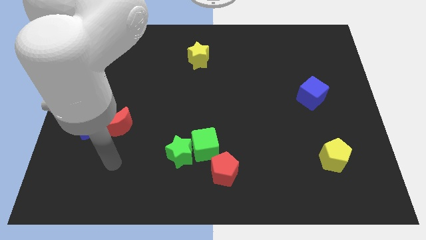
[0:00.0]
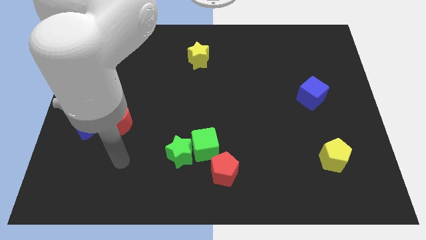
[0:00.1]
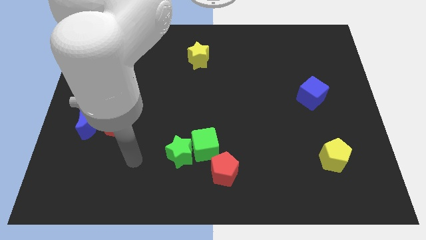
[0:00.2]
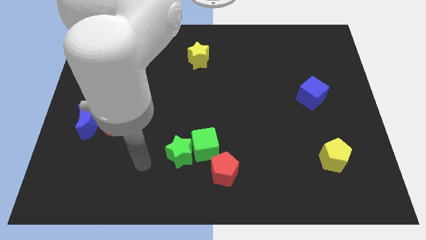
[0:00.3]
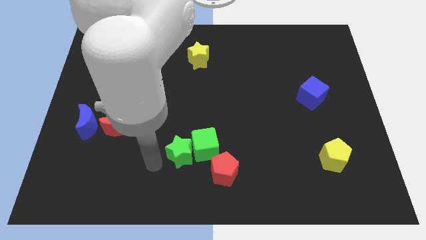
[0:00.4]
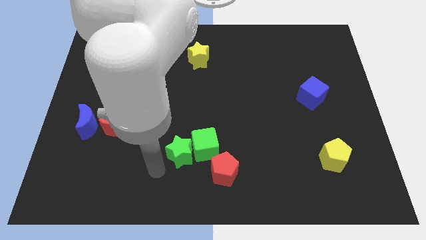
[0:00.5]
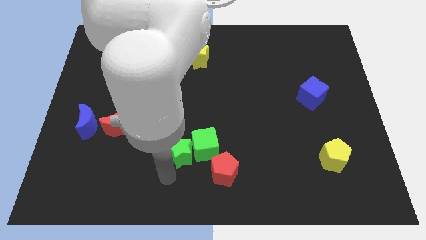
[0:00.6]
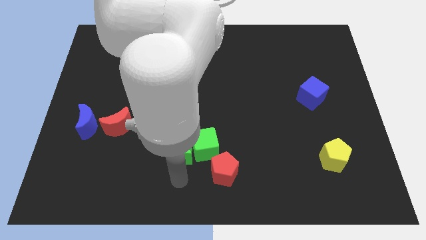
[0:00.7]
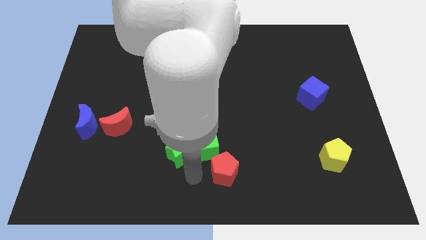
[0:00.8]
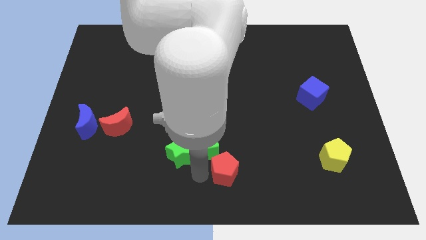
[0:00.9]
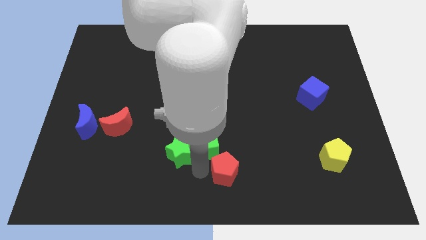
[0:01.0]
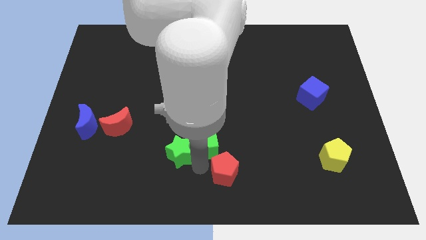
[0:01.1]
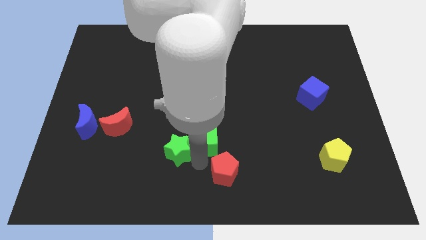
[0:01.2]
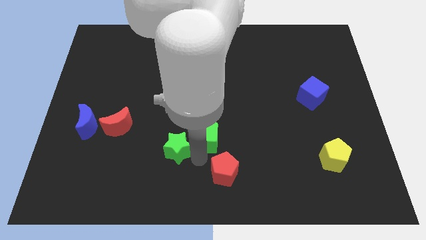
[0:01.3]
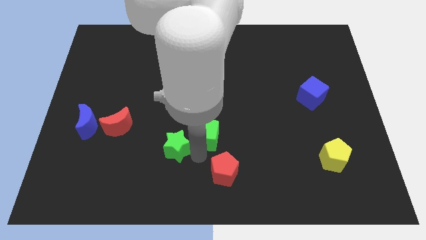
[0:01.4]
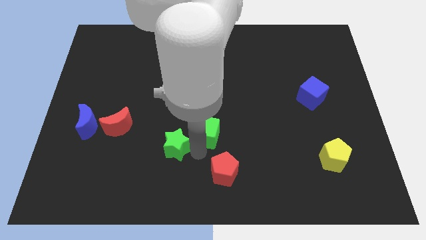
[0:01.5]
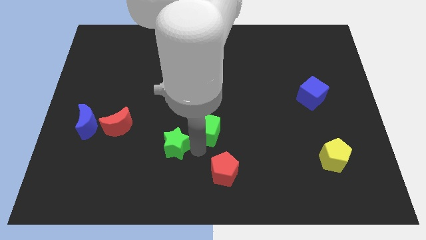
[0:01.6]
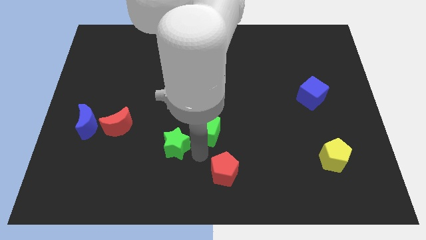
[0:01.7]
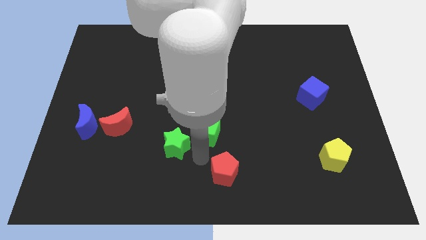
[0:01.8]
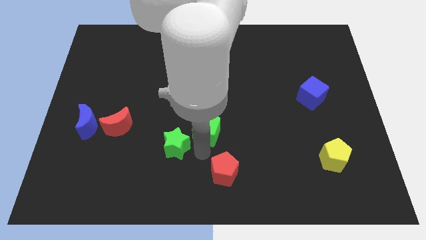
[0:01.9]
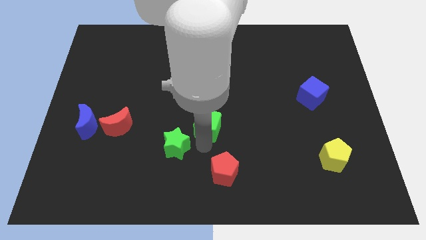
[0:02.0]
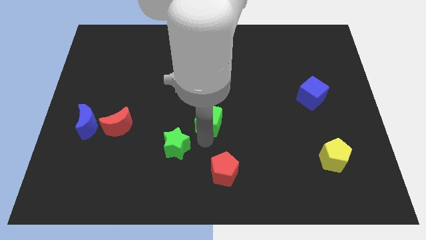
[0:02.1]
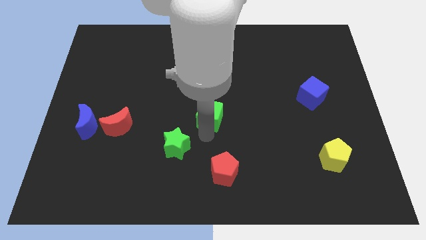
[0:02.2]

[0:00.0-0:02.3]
separate the green cube from the green star and red pentagon

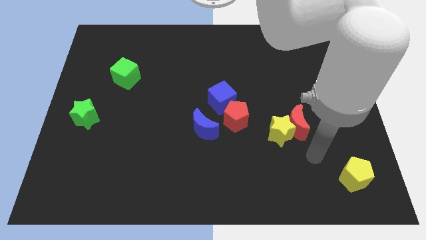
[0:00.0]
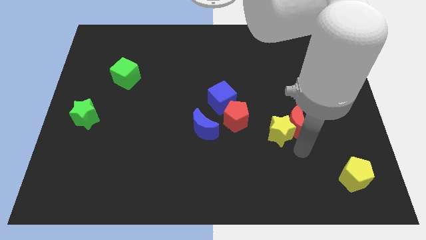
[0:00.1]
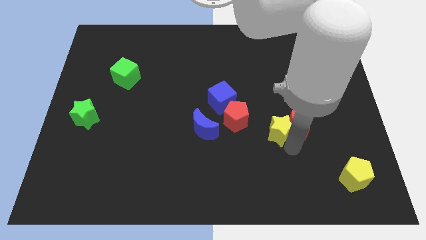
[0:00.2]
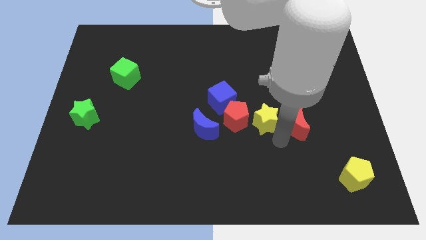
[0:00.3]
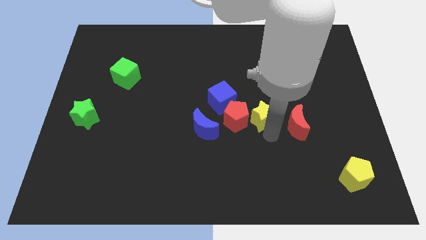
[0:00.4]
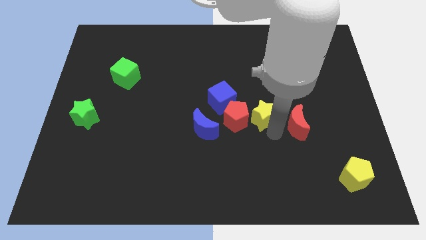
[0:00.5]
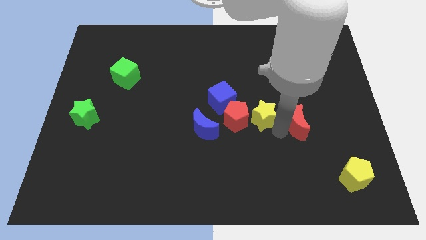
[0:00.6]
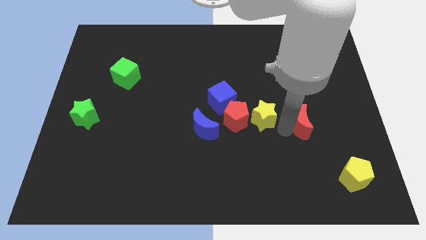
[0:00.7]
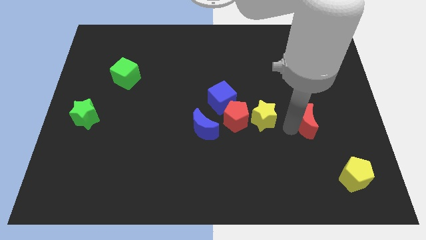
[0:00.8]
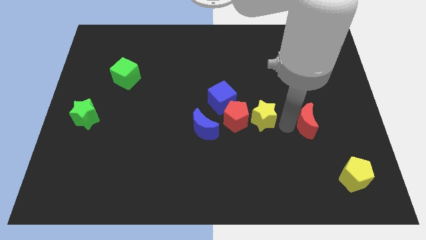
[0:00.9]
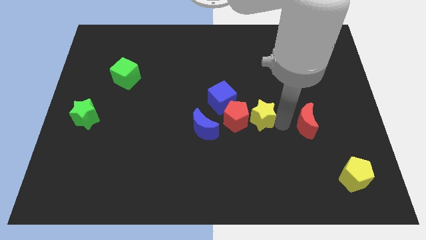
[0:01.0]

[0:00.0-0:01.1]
pull the red moon apart from the yellow star

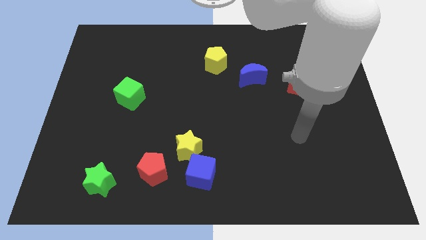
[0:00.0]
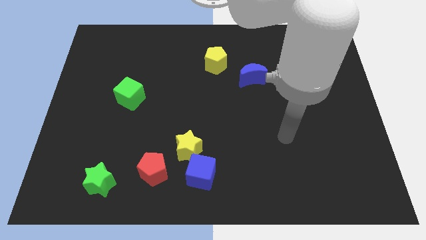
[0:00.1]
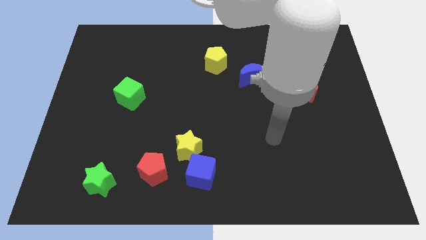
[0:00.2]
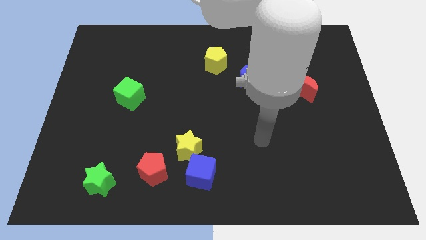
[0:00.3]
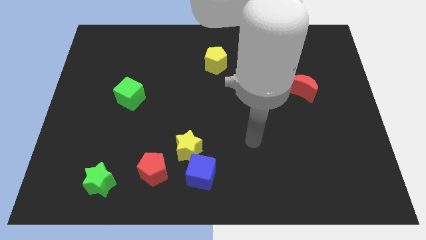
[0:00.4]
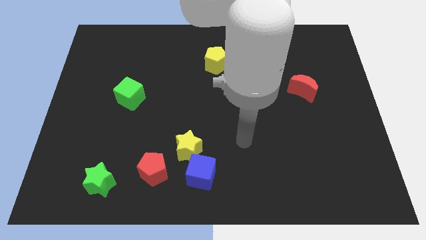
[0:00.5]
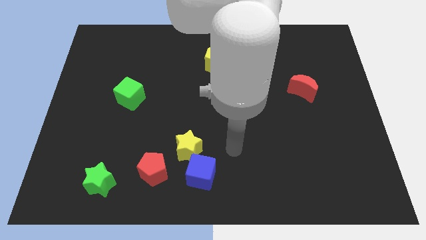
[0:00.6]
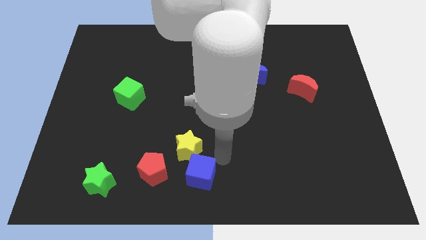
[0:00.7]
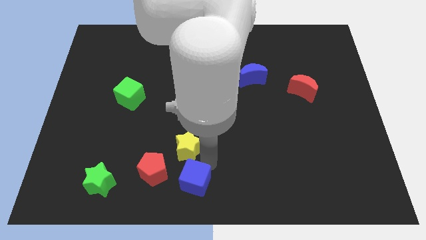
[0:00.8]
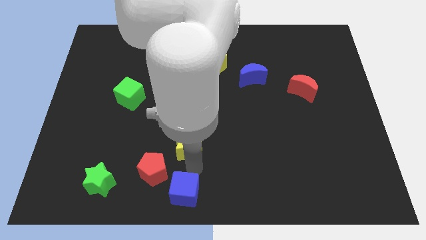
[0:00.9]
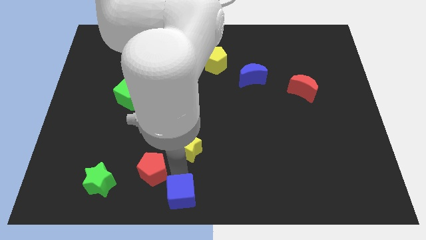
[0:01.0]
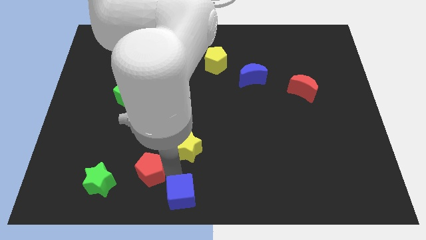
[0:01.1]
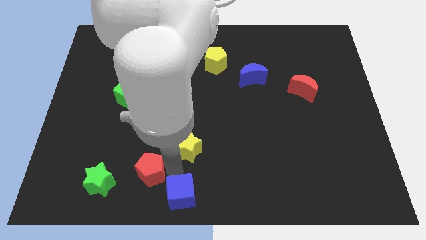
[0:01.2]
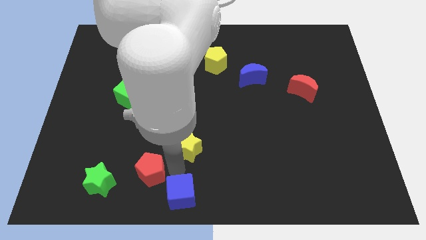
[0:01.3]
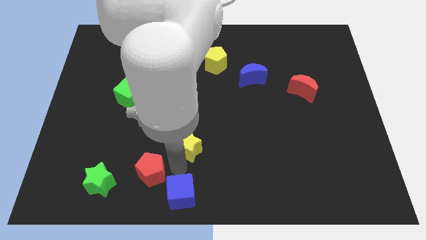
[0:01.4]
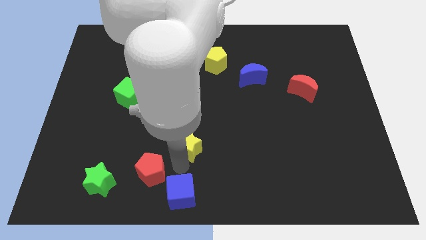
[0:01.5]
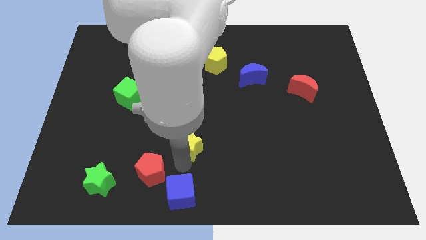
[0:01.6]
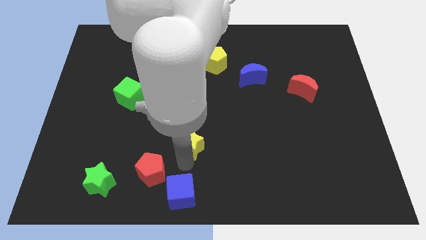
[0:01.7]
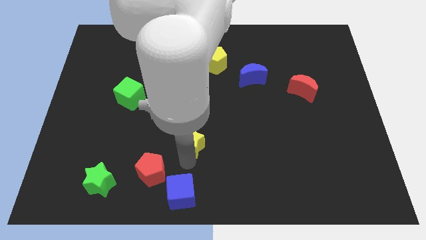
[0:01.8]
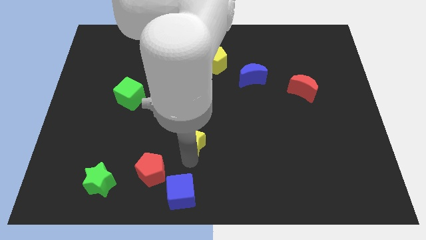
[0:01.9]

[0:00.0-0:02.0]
separate the yellow star from the blue cube and red pentagon

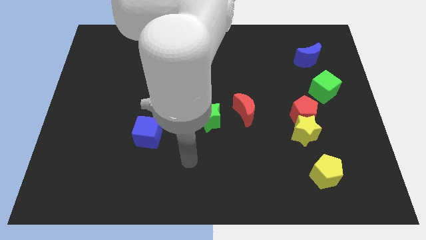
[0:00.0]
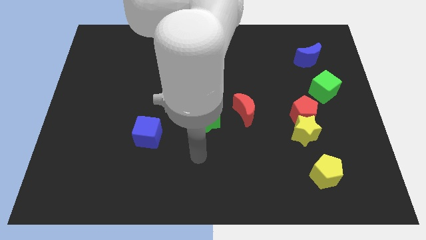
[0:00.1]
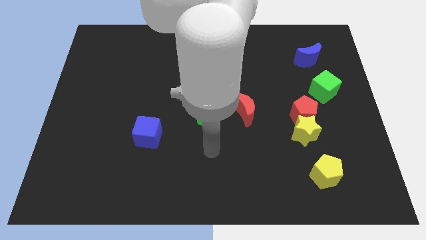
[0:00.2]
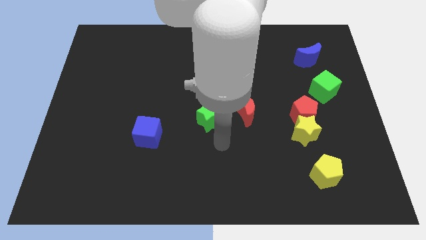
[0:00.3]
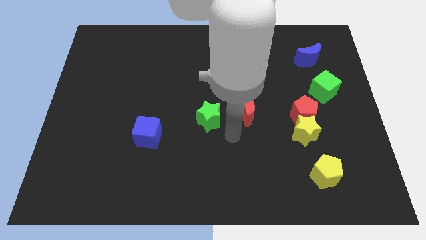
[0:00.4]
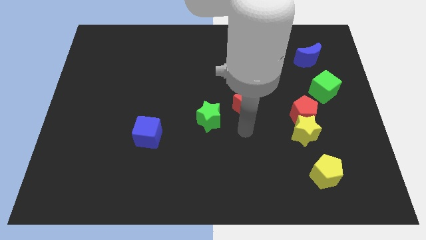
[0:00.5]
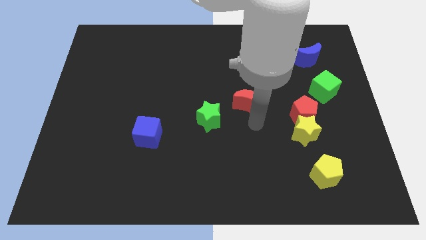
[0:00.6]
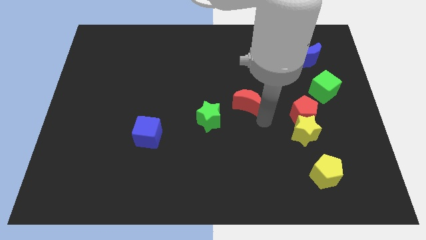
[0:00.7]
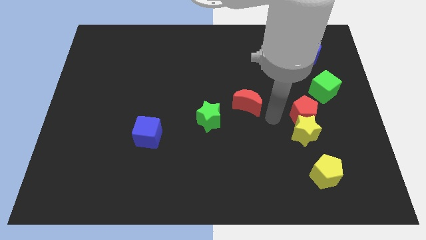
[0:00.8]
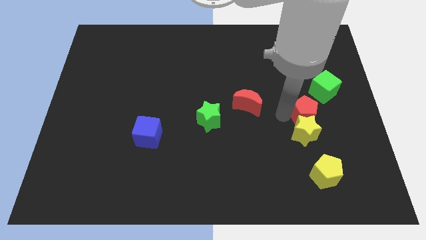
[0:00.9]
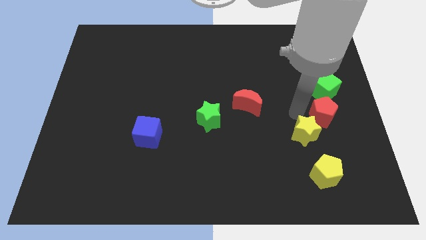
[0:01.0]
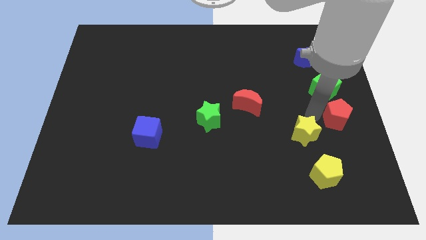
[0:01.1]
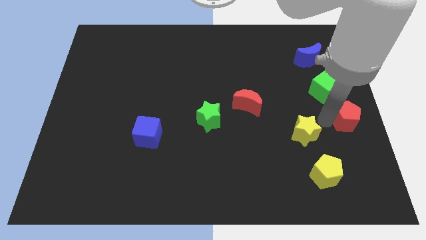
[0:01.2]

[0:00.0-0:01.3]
move the yellow star away from the red pentagon

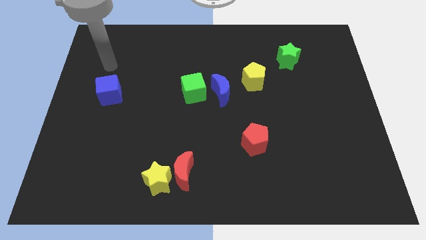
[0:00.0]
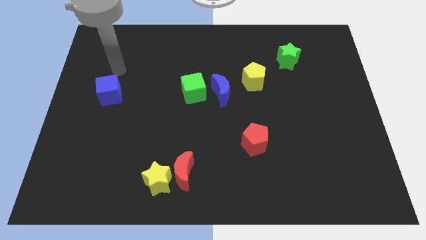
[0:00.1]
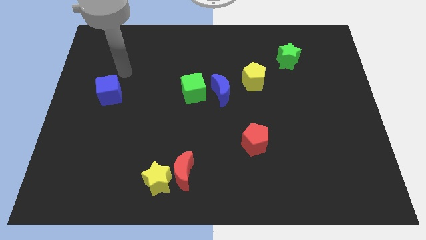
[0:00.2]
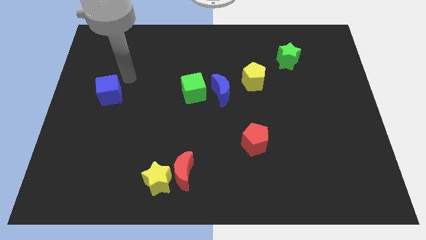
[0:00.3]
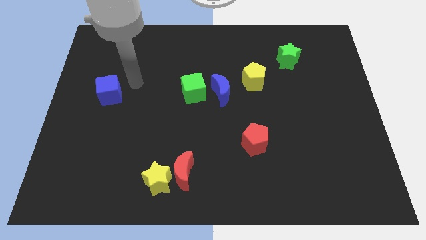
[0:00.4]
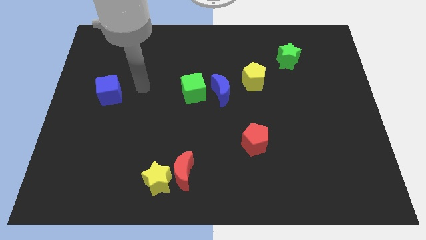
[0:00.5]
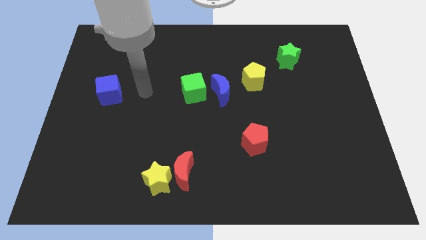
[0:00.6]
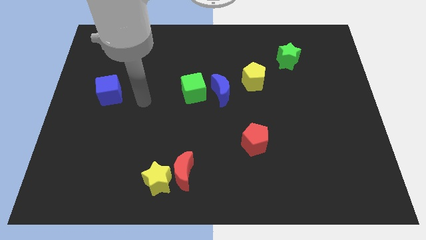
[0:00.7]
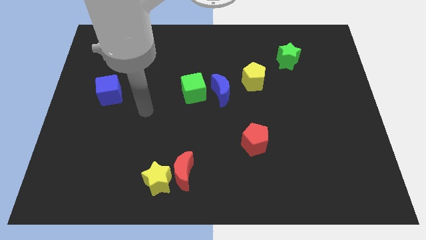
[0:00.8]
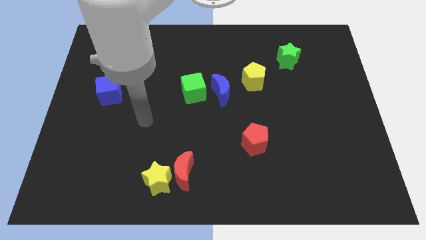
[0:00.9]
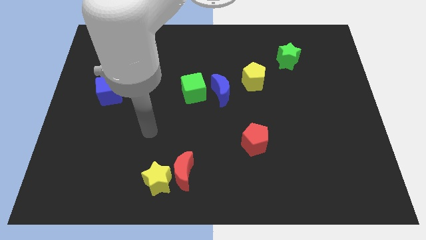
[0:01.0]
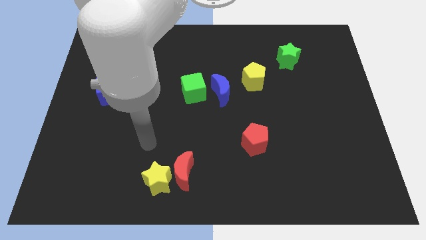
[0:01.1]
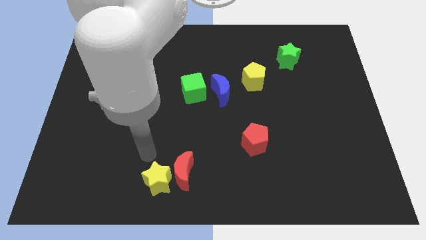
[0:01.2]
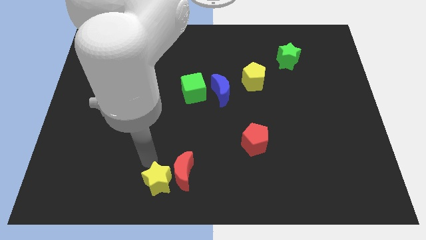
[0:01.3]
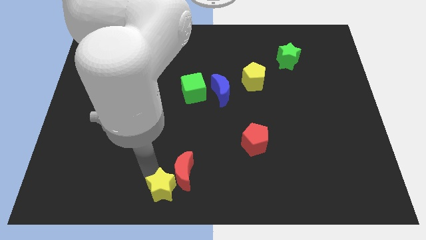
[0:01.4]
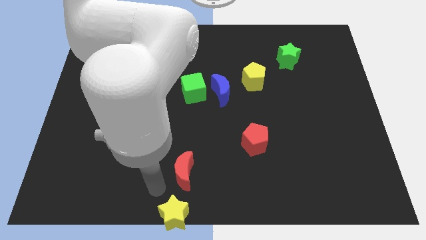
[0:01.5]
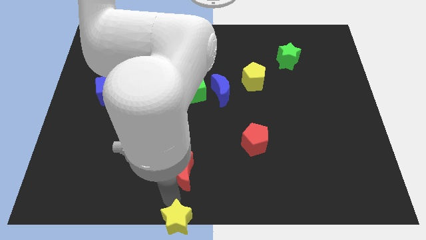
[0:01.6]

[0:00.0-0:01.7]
separate the red moon from the yellow star

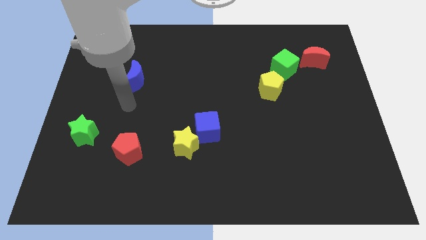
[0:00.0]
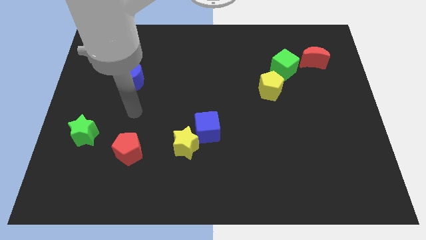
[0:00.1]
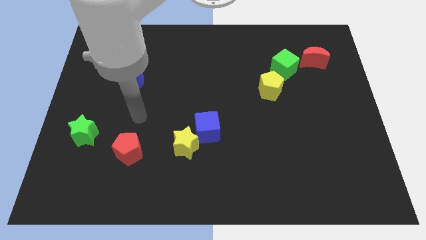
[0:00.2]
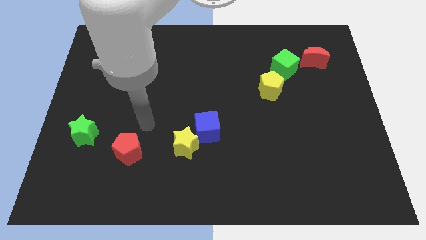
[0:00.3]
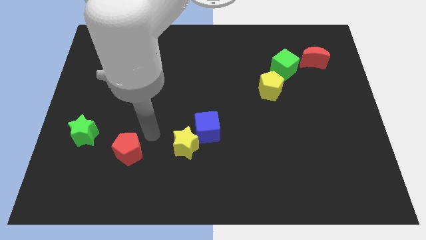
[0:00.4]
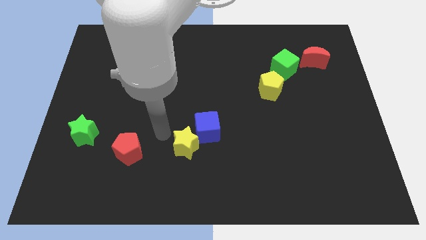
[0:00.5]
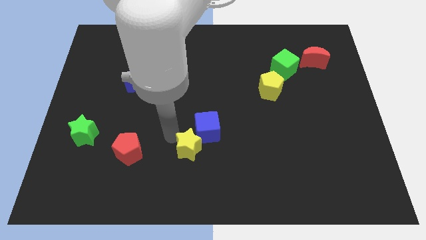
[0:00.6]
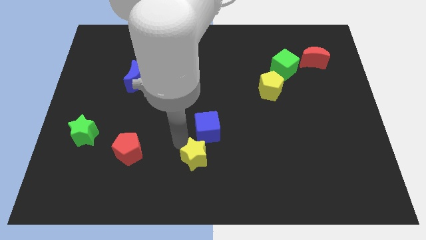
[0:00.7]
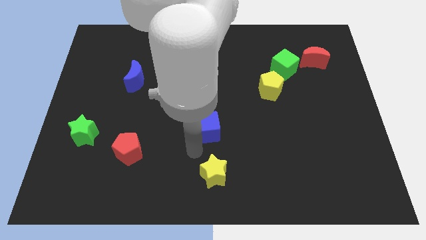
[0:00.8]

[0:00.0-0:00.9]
pull the blue cube apart from the yellow star
